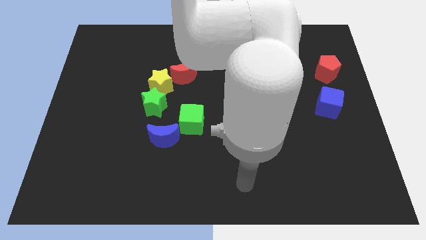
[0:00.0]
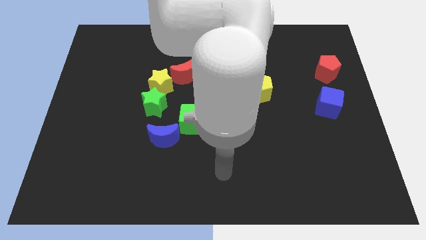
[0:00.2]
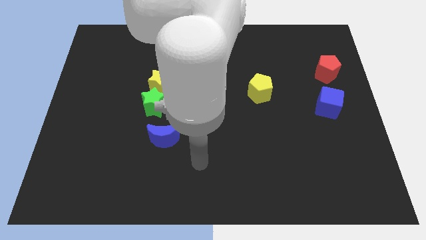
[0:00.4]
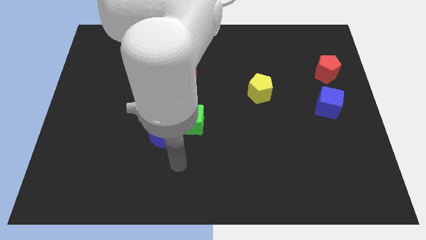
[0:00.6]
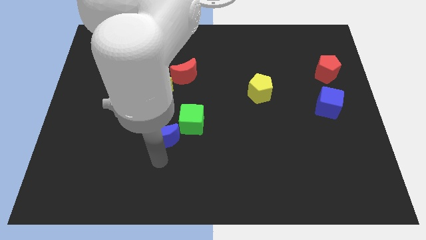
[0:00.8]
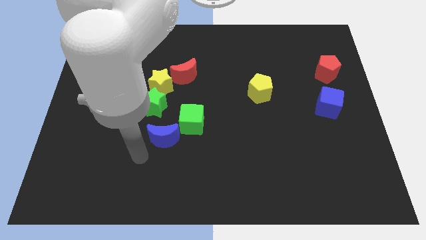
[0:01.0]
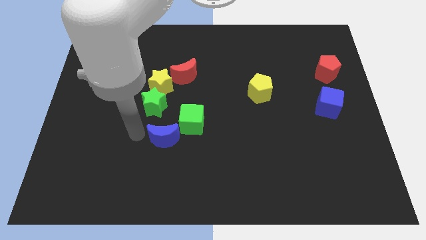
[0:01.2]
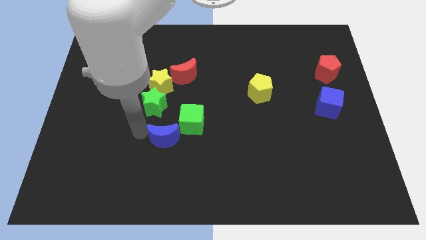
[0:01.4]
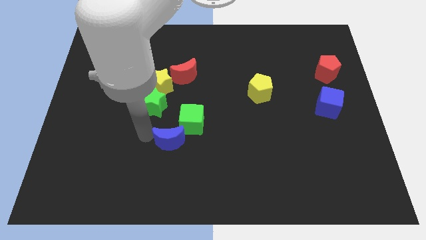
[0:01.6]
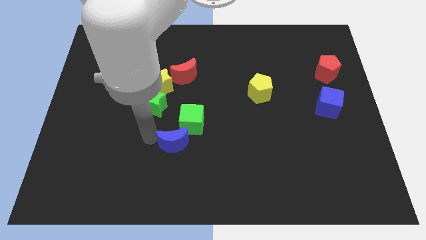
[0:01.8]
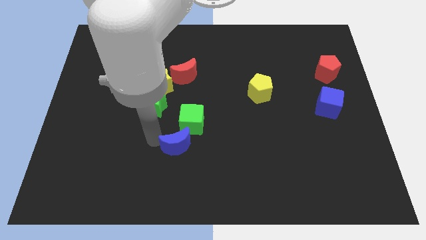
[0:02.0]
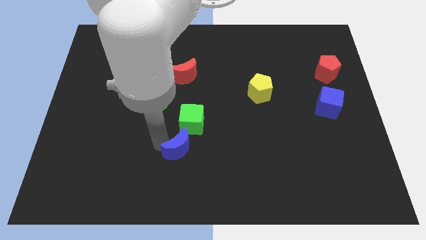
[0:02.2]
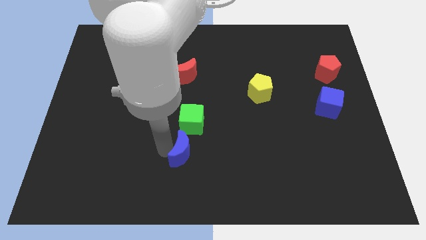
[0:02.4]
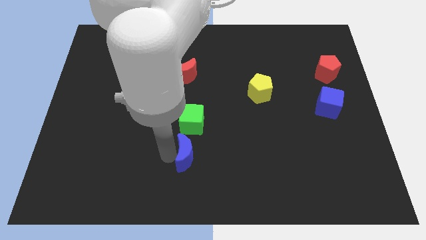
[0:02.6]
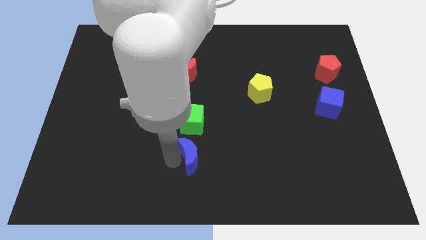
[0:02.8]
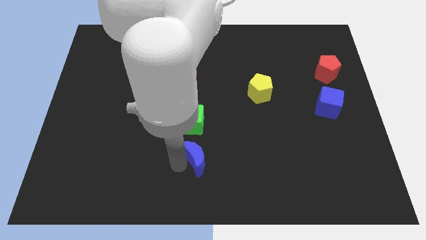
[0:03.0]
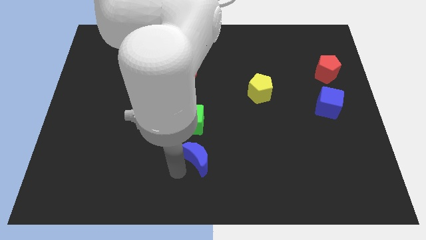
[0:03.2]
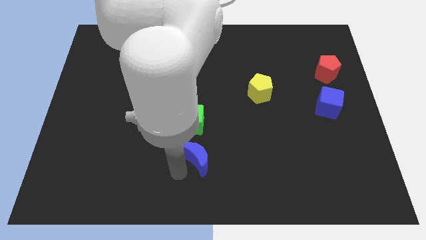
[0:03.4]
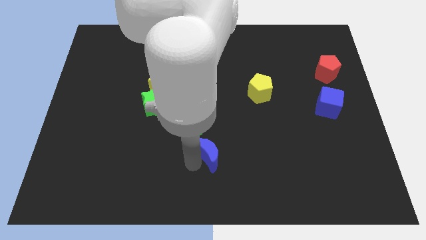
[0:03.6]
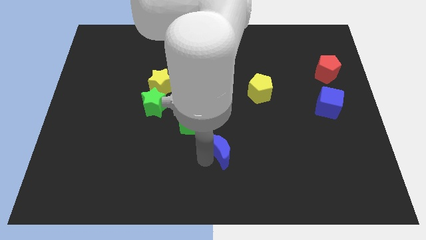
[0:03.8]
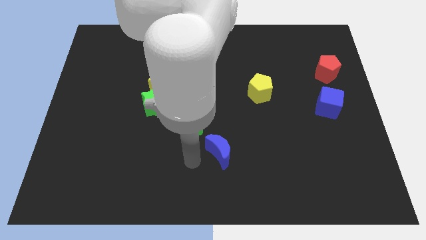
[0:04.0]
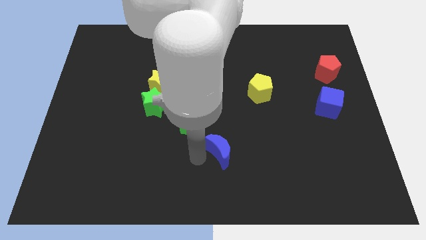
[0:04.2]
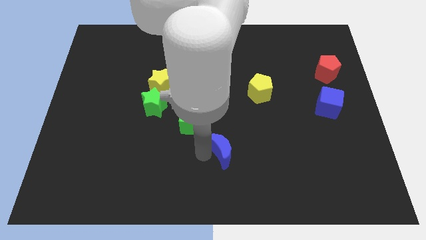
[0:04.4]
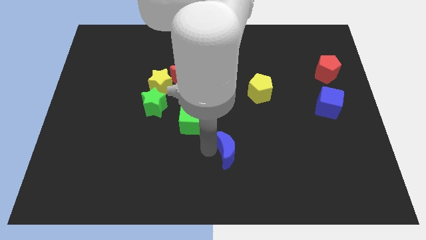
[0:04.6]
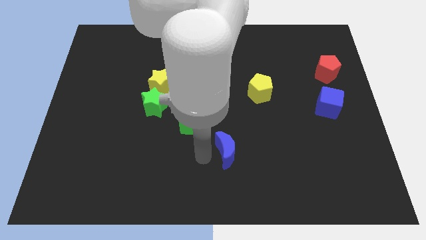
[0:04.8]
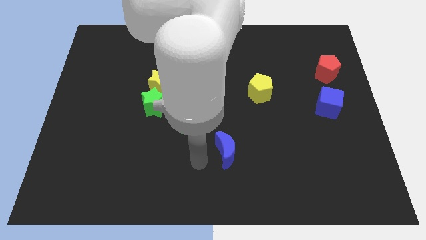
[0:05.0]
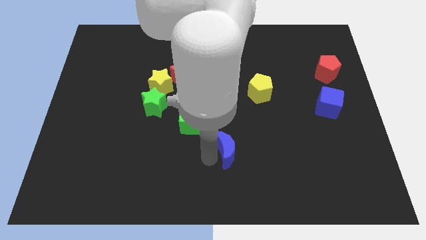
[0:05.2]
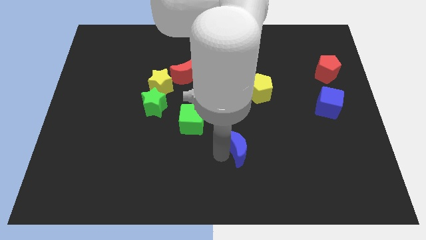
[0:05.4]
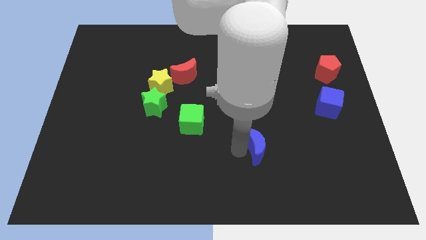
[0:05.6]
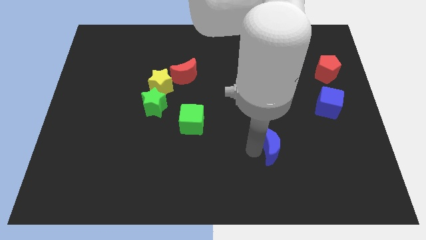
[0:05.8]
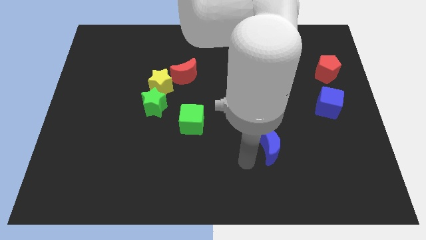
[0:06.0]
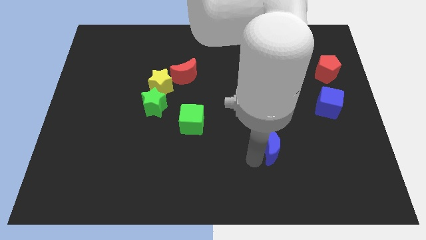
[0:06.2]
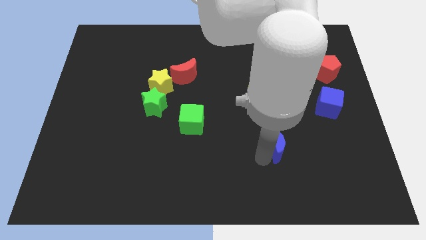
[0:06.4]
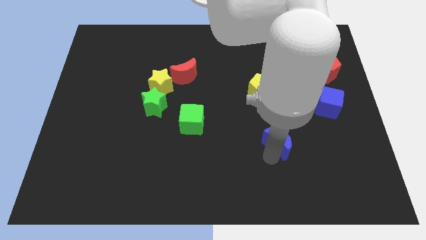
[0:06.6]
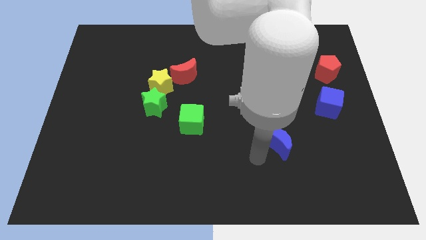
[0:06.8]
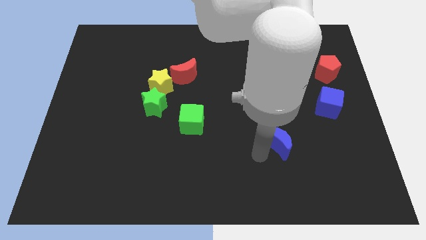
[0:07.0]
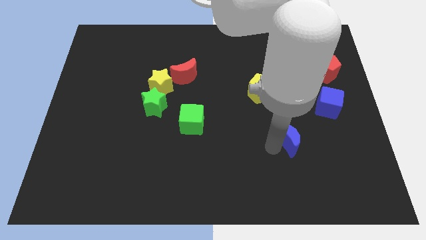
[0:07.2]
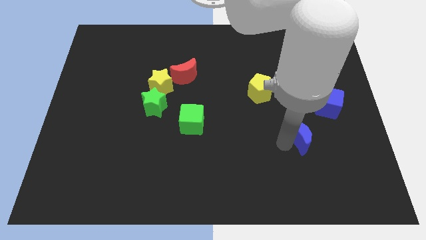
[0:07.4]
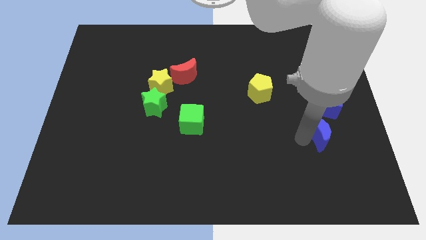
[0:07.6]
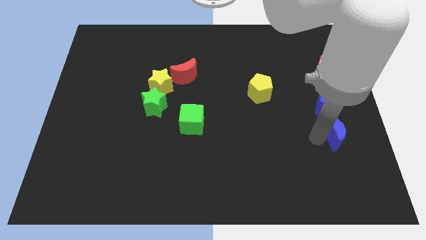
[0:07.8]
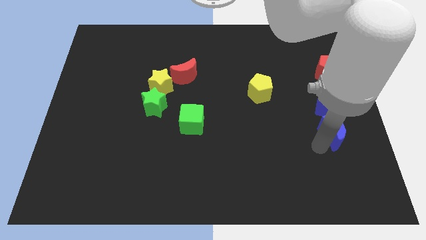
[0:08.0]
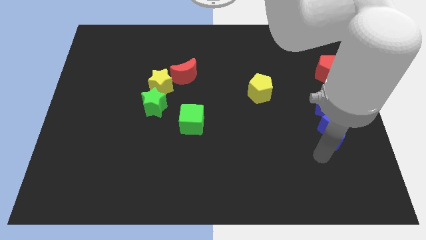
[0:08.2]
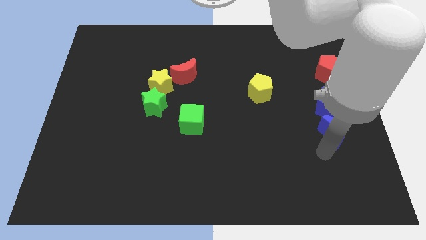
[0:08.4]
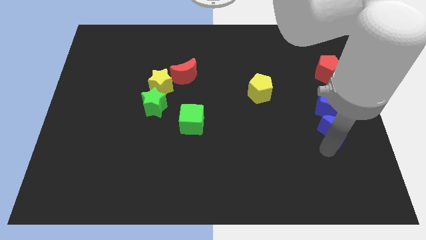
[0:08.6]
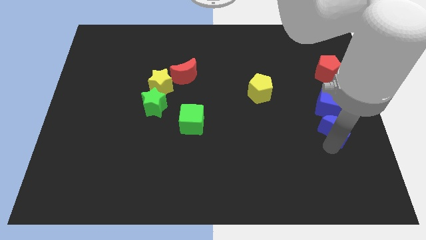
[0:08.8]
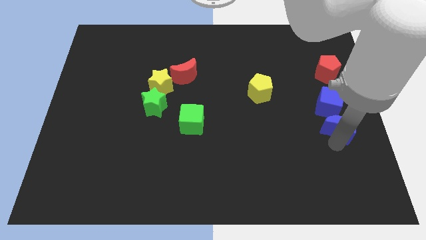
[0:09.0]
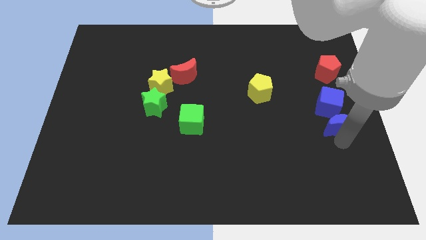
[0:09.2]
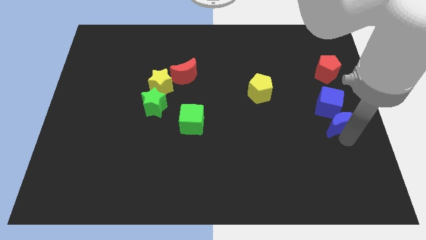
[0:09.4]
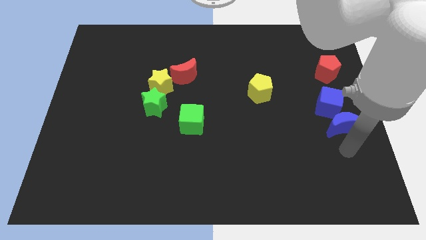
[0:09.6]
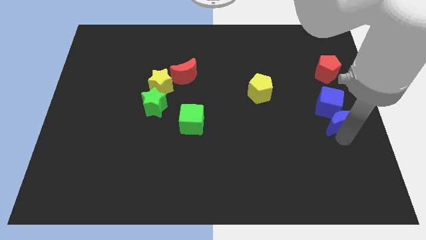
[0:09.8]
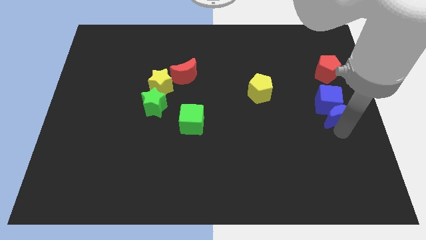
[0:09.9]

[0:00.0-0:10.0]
slide the blue moon below the red pentagon

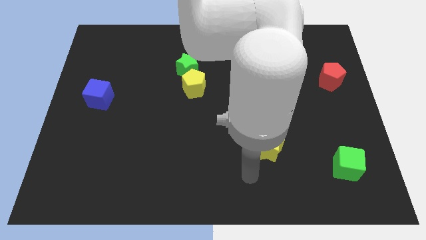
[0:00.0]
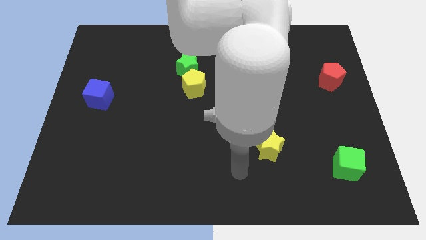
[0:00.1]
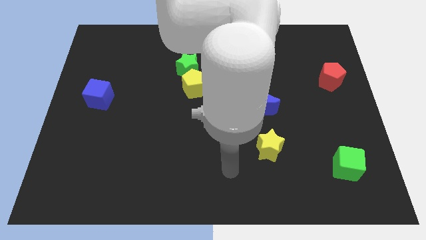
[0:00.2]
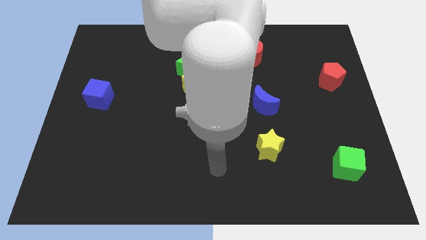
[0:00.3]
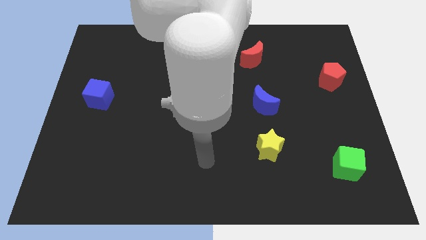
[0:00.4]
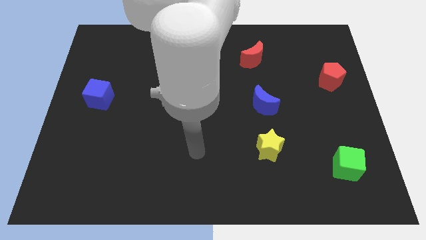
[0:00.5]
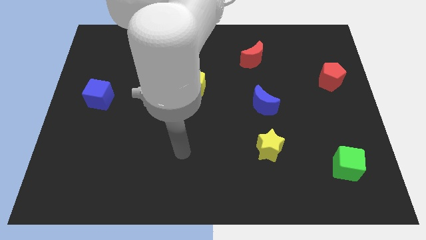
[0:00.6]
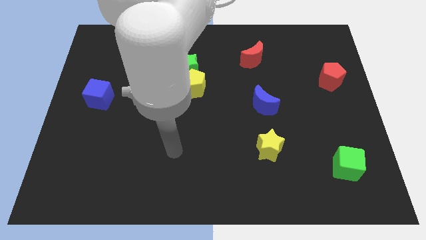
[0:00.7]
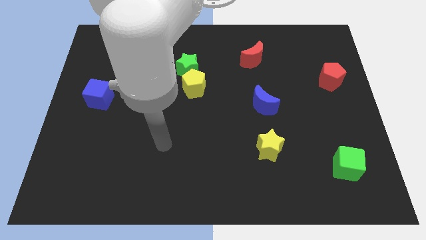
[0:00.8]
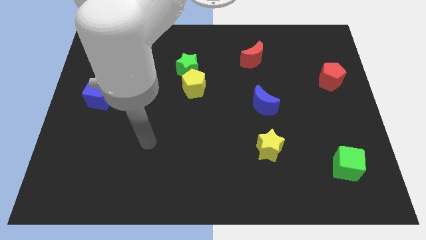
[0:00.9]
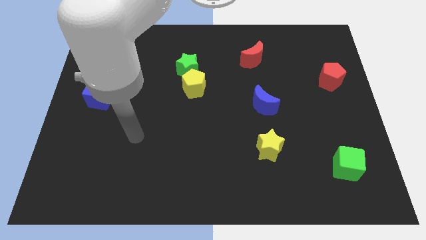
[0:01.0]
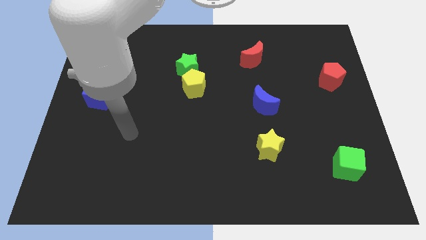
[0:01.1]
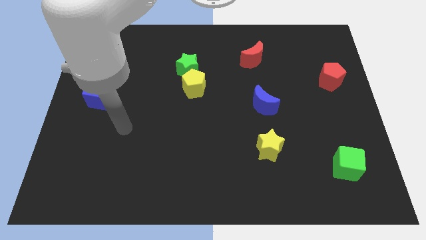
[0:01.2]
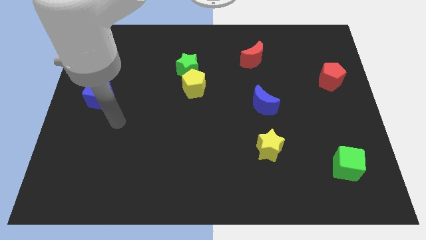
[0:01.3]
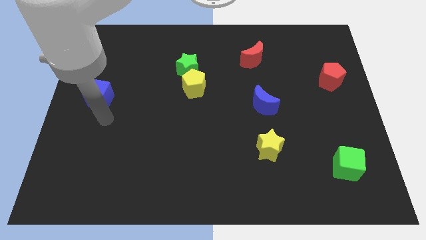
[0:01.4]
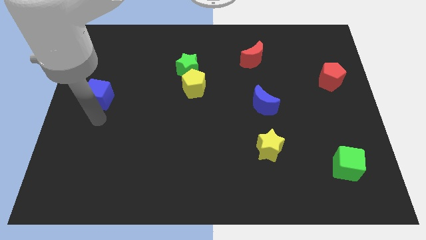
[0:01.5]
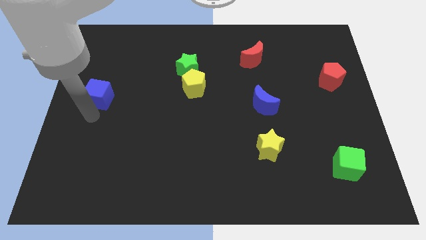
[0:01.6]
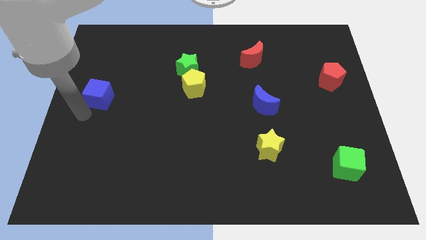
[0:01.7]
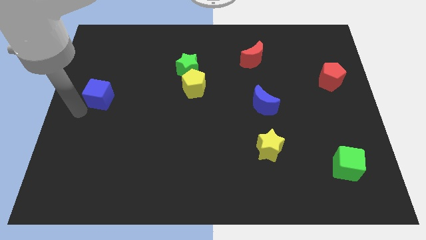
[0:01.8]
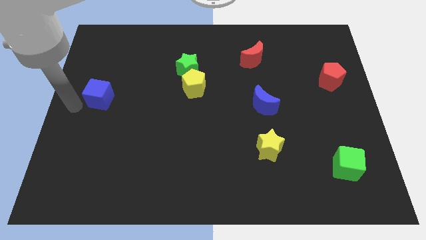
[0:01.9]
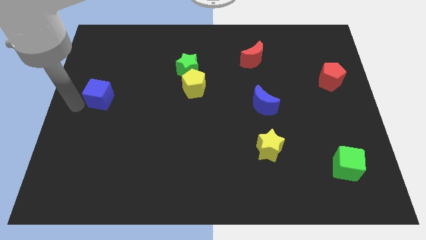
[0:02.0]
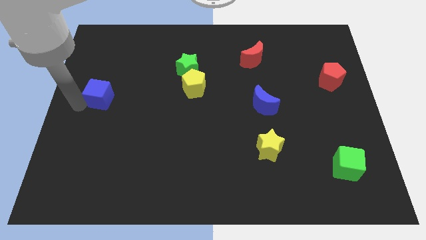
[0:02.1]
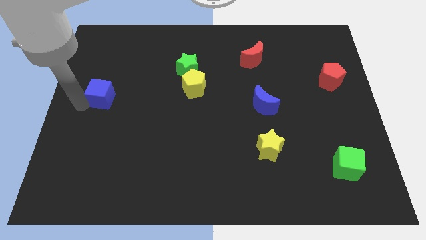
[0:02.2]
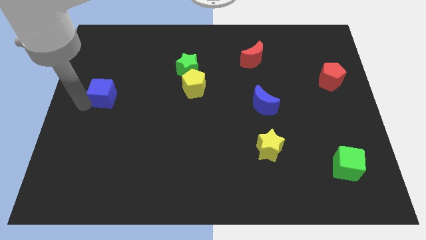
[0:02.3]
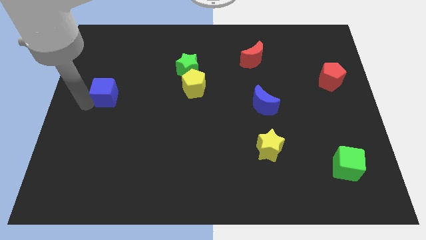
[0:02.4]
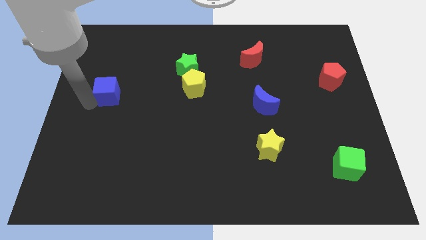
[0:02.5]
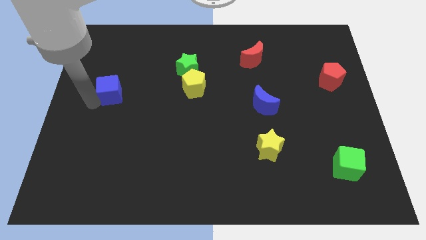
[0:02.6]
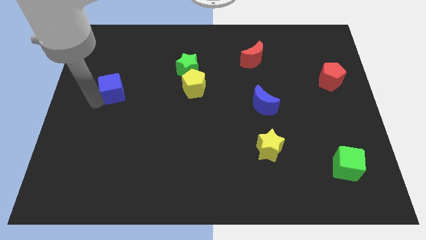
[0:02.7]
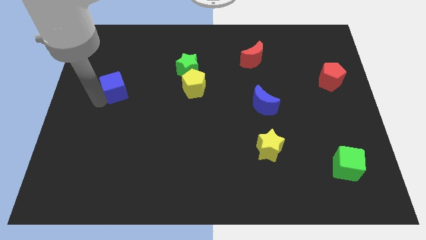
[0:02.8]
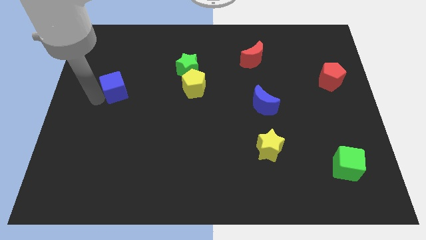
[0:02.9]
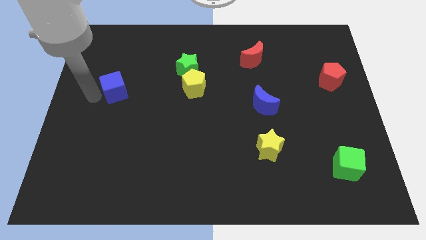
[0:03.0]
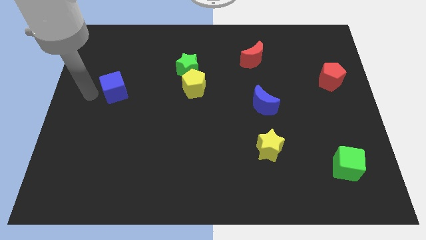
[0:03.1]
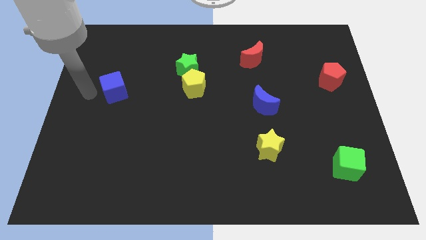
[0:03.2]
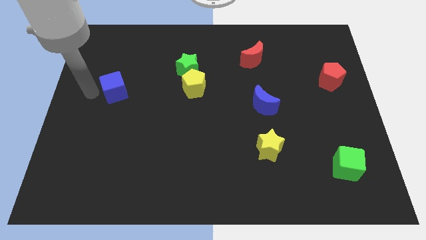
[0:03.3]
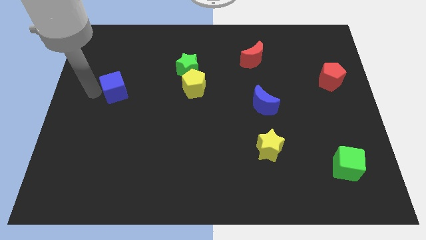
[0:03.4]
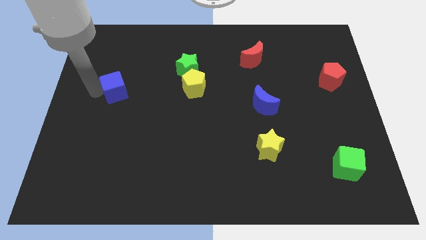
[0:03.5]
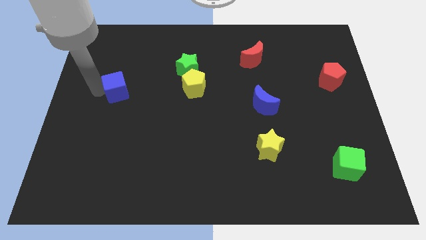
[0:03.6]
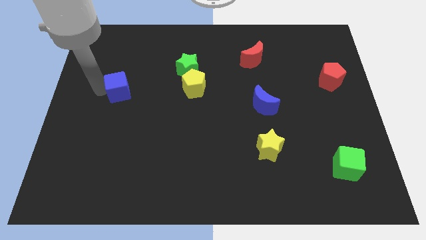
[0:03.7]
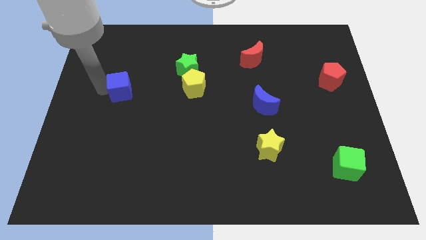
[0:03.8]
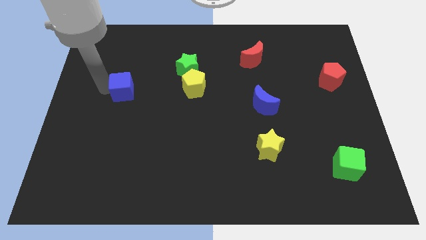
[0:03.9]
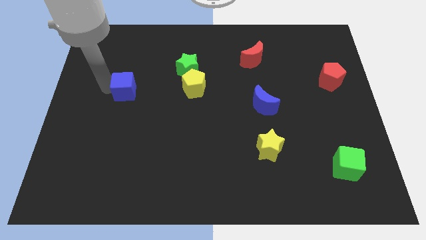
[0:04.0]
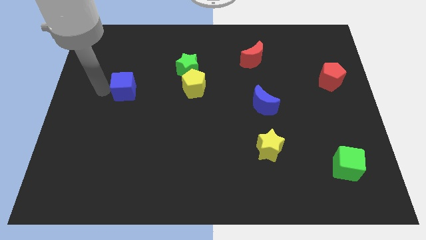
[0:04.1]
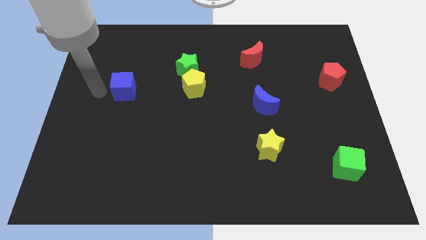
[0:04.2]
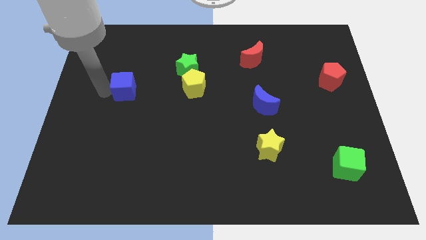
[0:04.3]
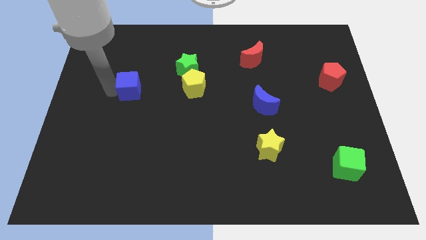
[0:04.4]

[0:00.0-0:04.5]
push the blue cube left of the yellow pentagon
